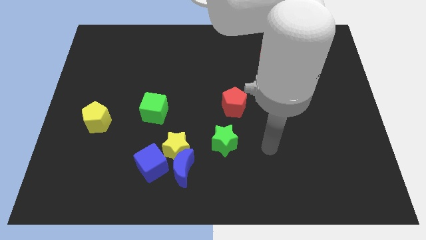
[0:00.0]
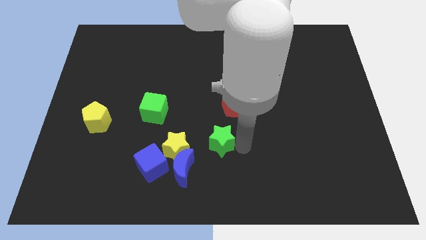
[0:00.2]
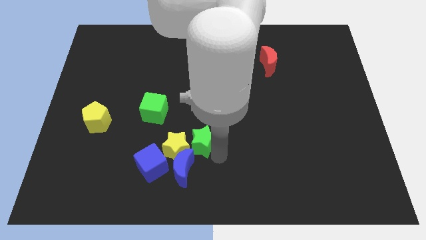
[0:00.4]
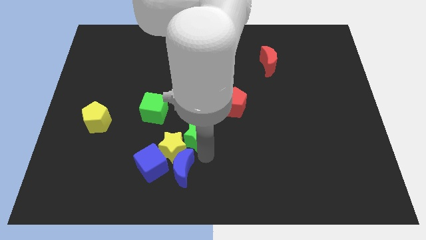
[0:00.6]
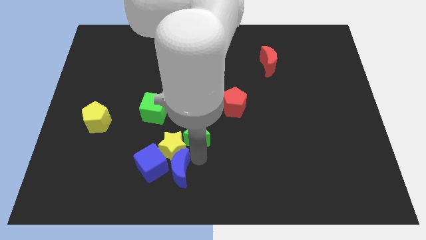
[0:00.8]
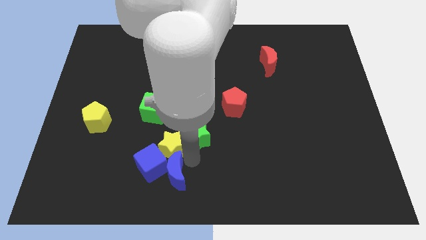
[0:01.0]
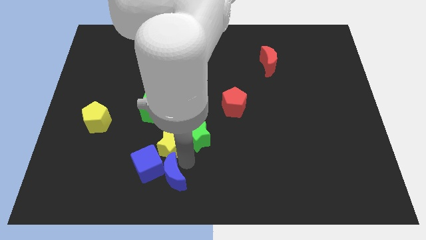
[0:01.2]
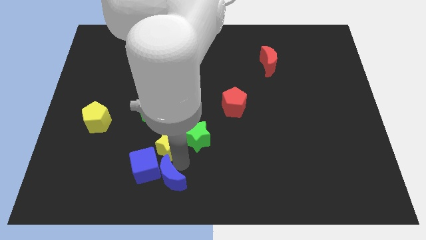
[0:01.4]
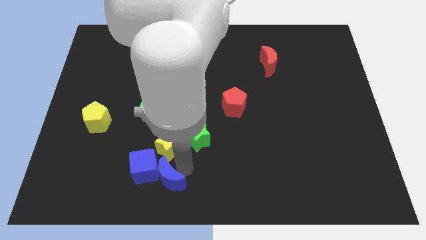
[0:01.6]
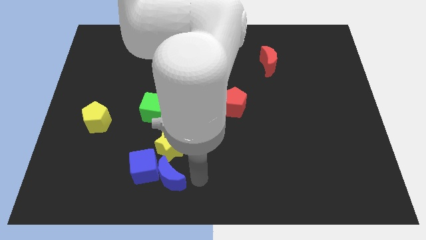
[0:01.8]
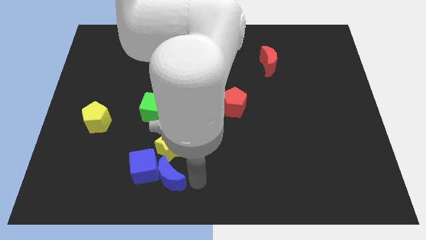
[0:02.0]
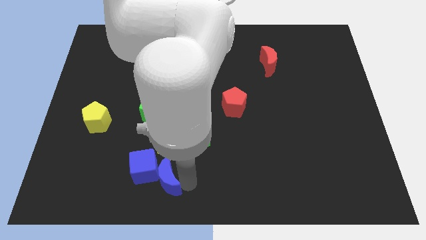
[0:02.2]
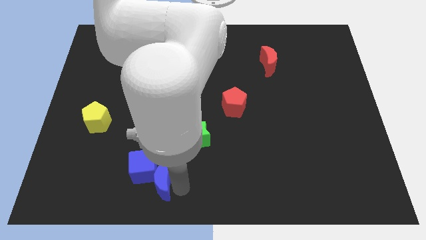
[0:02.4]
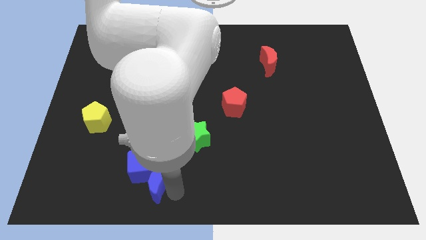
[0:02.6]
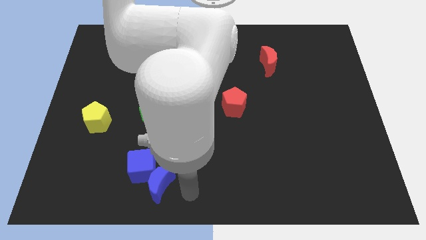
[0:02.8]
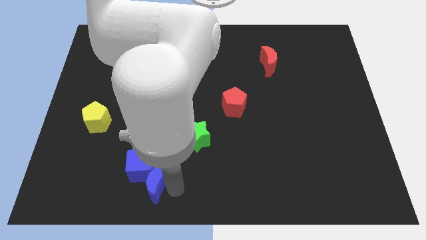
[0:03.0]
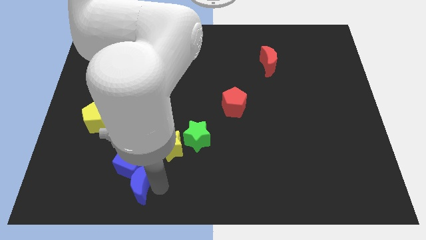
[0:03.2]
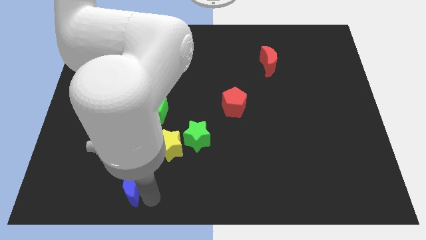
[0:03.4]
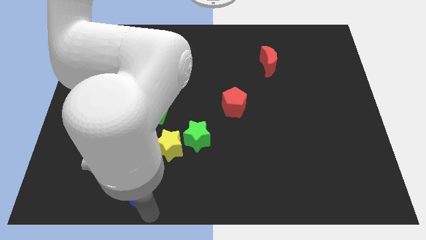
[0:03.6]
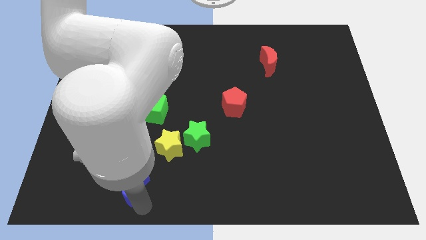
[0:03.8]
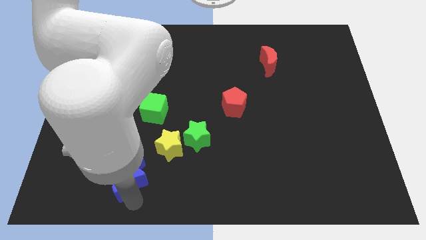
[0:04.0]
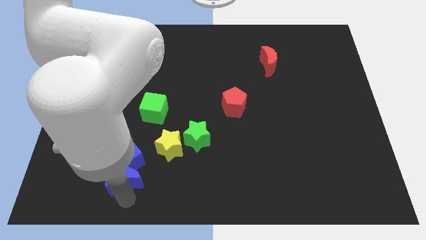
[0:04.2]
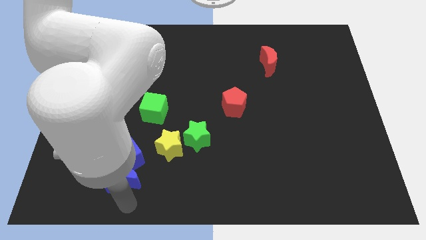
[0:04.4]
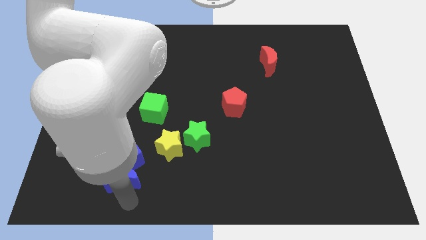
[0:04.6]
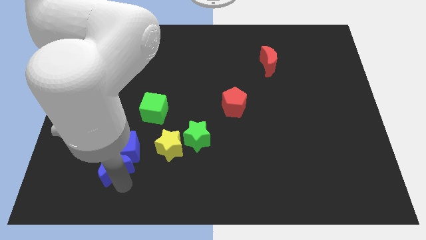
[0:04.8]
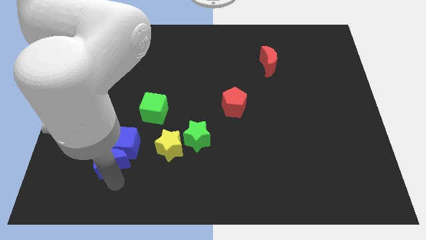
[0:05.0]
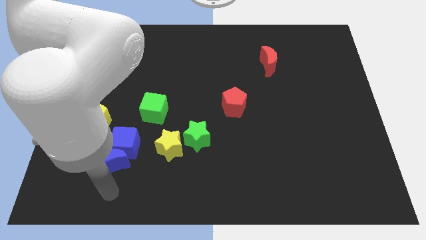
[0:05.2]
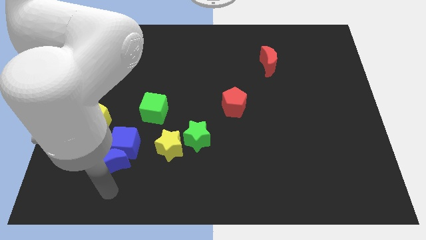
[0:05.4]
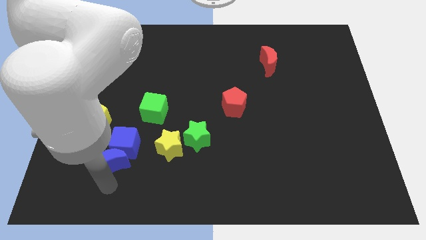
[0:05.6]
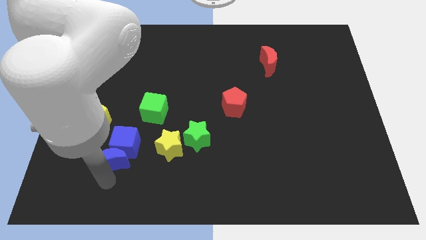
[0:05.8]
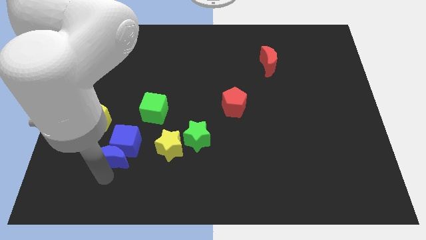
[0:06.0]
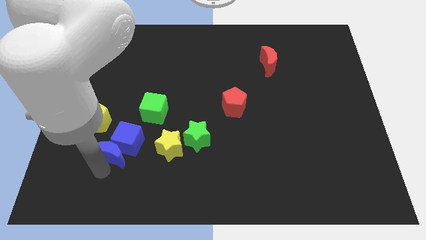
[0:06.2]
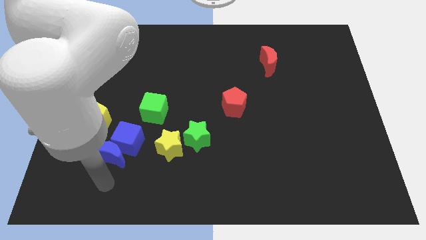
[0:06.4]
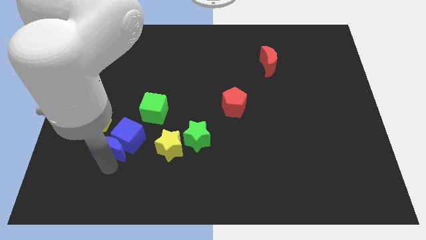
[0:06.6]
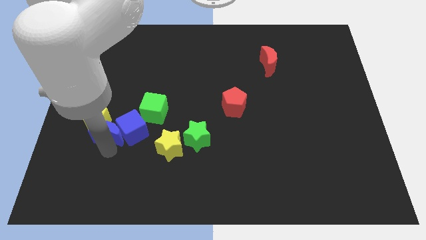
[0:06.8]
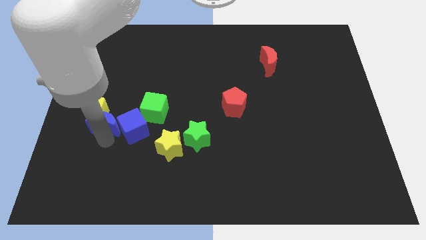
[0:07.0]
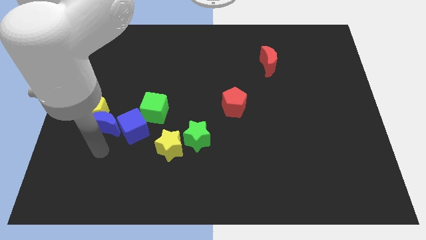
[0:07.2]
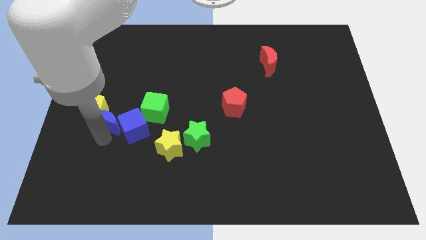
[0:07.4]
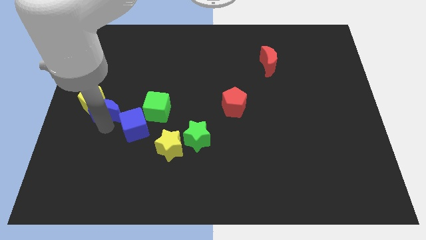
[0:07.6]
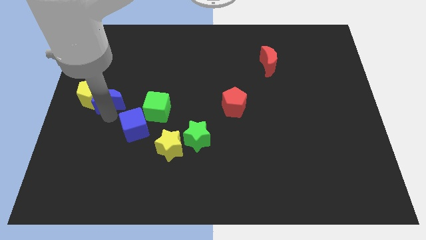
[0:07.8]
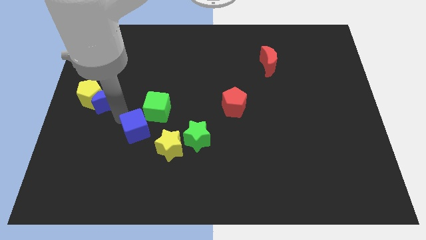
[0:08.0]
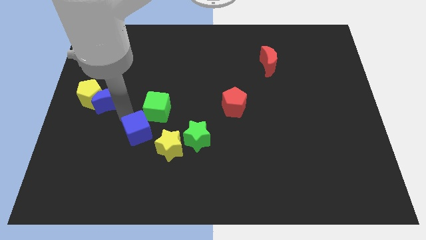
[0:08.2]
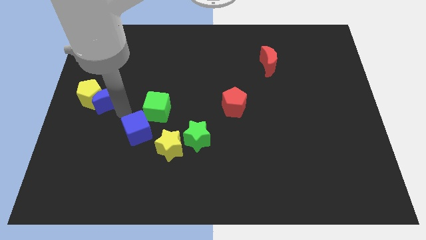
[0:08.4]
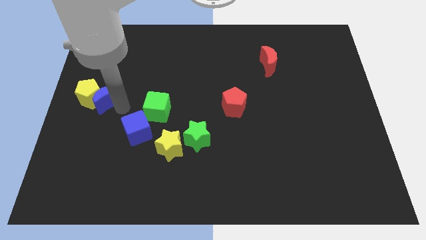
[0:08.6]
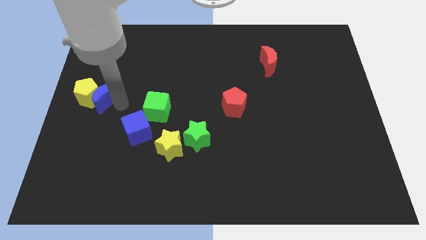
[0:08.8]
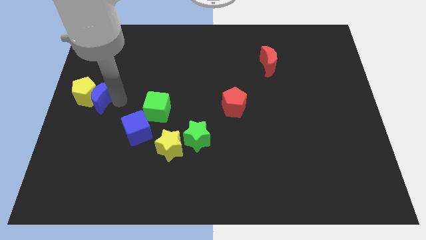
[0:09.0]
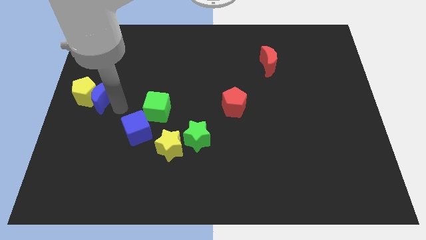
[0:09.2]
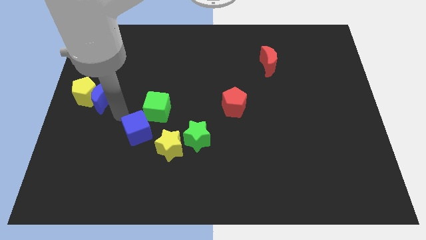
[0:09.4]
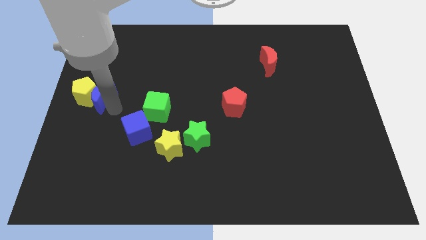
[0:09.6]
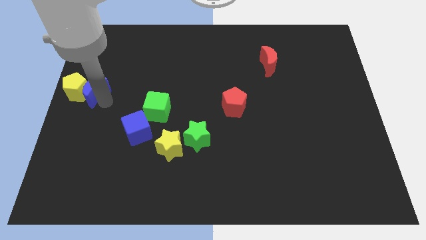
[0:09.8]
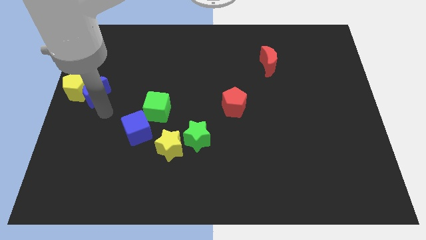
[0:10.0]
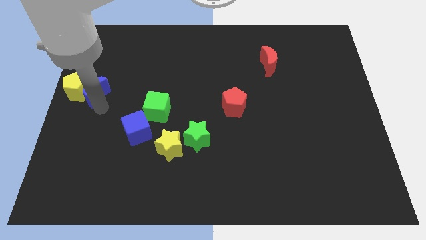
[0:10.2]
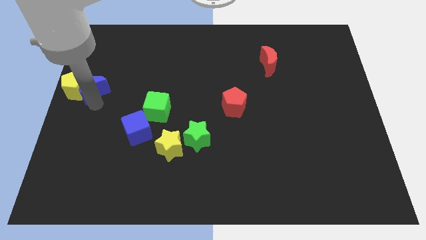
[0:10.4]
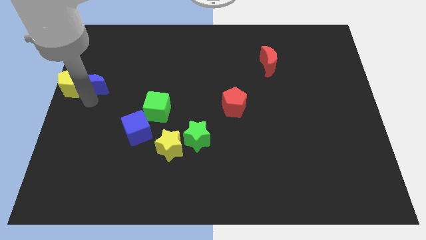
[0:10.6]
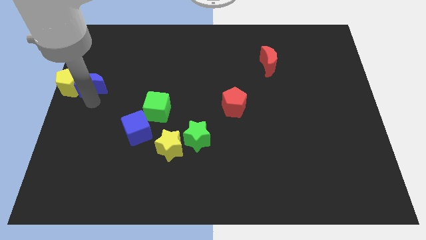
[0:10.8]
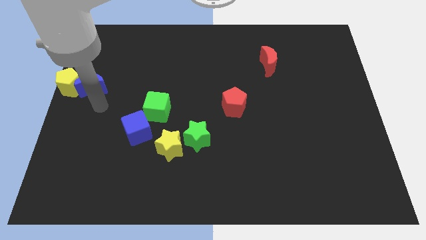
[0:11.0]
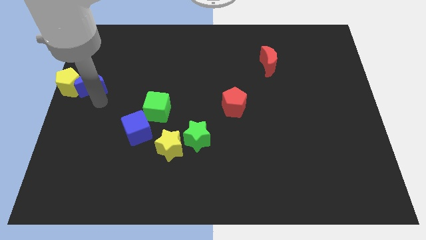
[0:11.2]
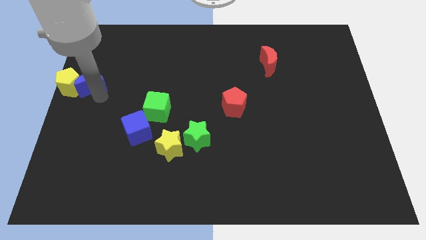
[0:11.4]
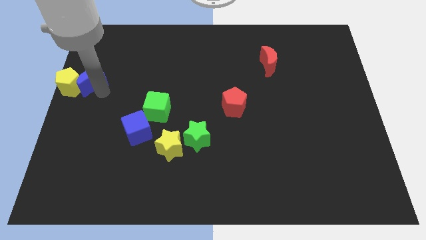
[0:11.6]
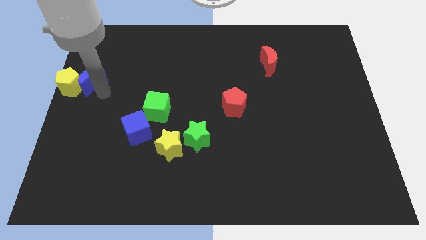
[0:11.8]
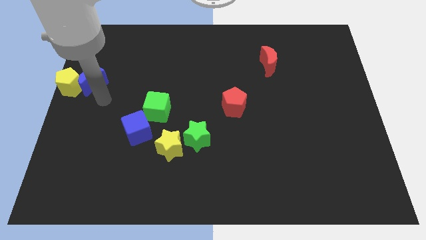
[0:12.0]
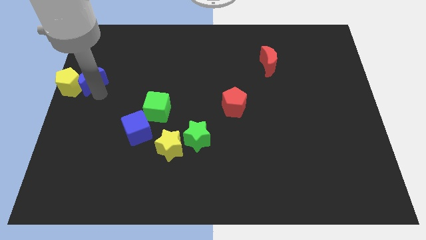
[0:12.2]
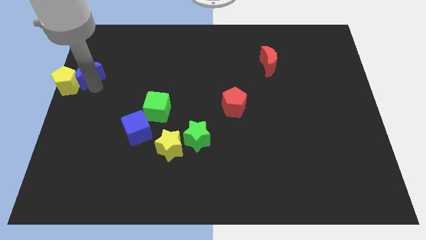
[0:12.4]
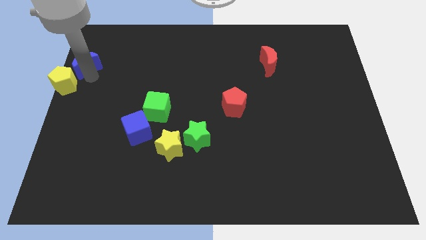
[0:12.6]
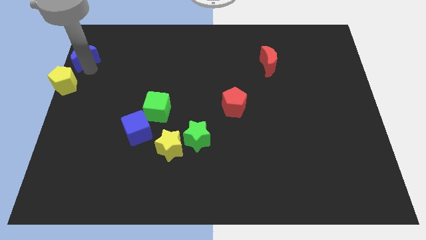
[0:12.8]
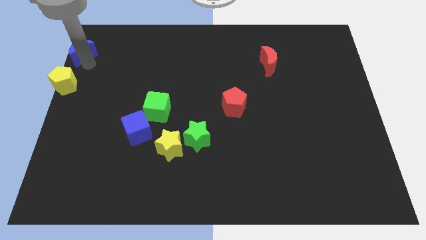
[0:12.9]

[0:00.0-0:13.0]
put the blue moon to the upper left corner
